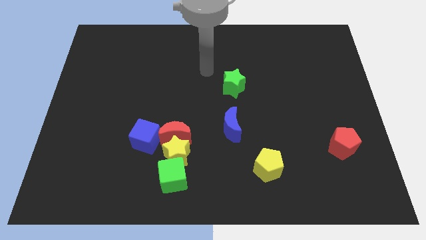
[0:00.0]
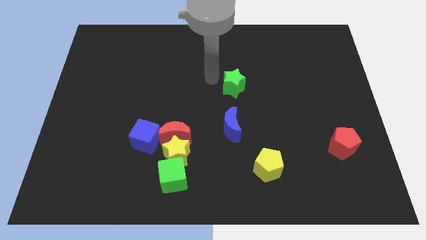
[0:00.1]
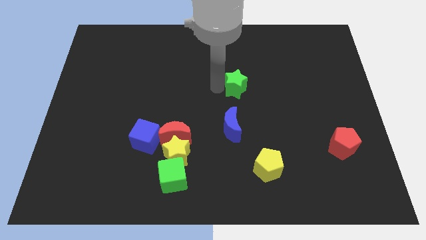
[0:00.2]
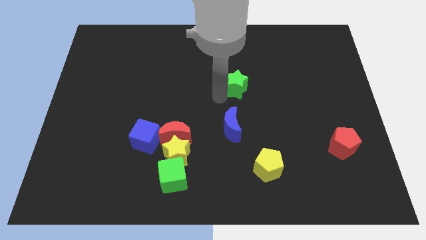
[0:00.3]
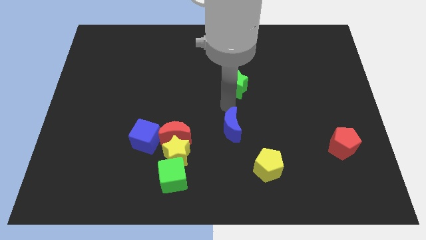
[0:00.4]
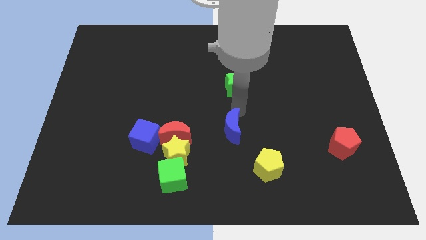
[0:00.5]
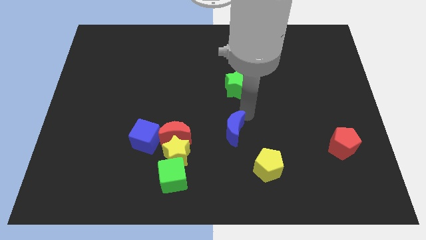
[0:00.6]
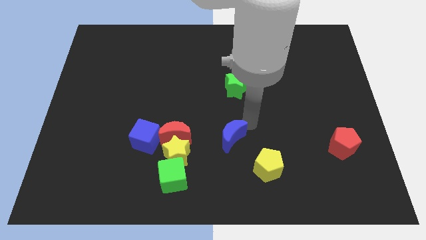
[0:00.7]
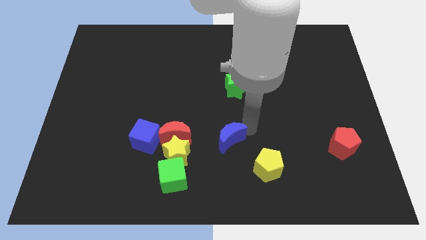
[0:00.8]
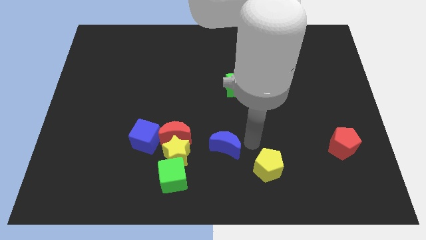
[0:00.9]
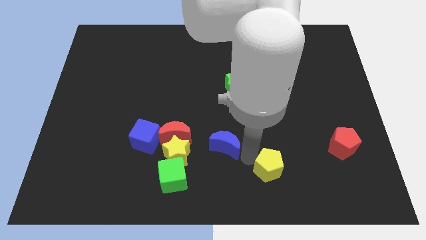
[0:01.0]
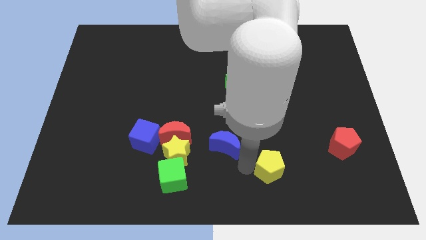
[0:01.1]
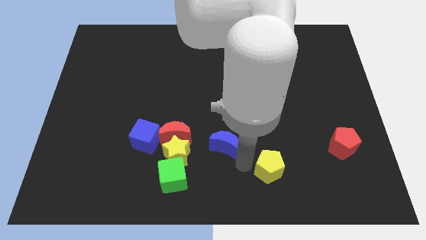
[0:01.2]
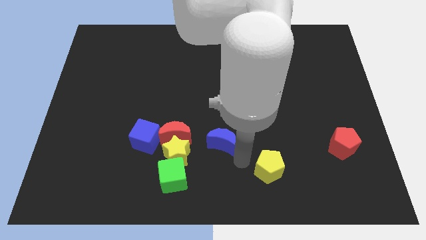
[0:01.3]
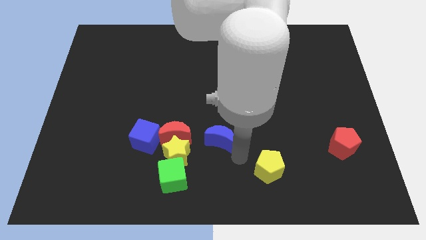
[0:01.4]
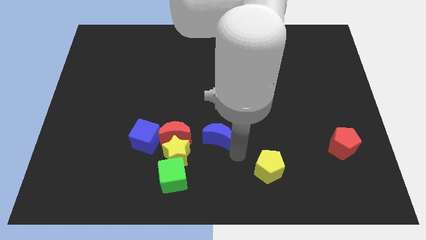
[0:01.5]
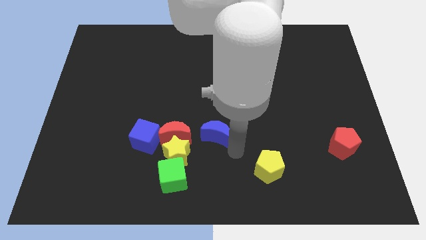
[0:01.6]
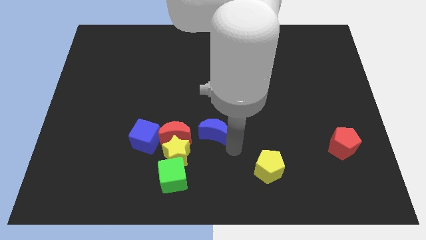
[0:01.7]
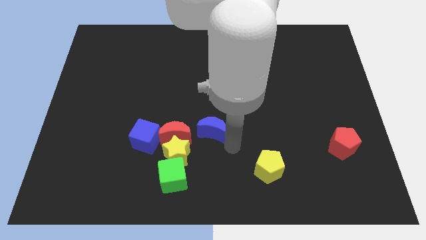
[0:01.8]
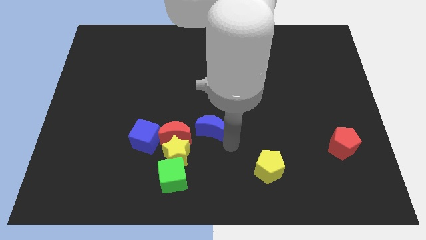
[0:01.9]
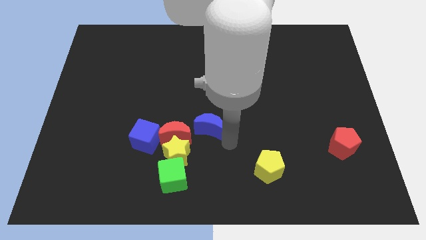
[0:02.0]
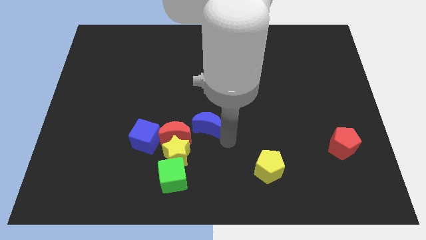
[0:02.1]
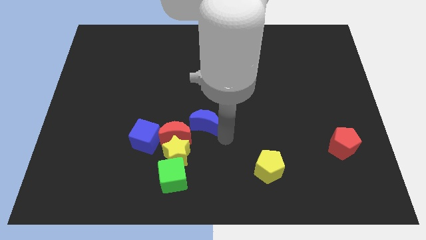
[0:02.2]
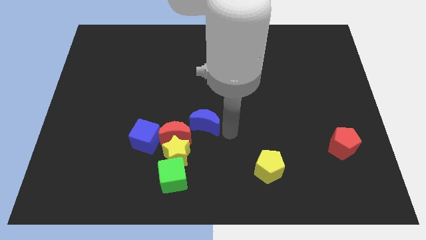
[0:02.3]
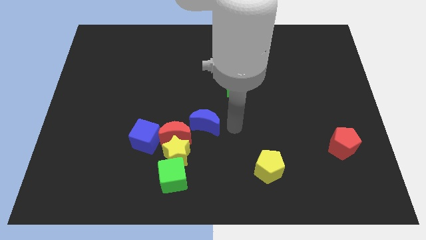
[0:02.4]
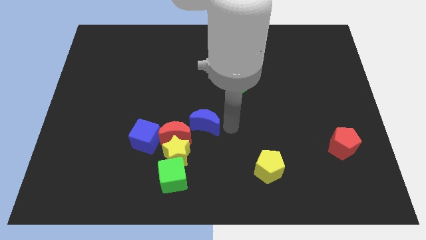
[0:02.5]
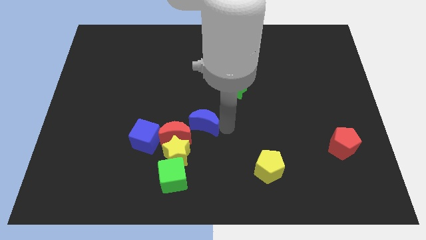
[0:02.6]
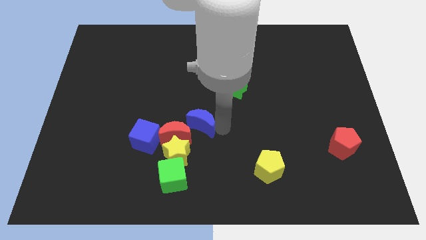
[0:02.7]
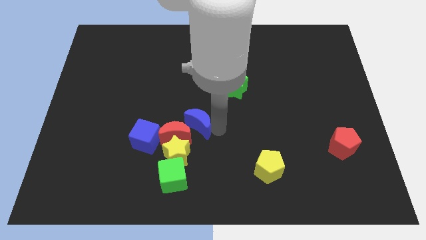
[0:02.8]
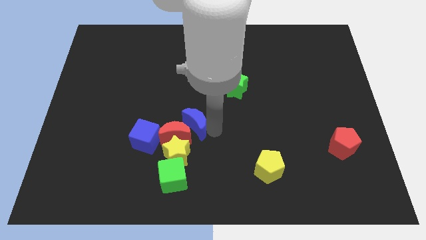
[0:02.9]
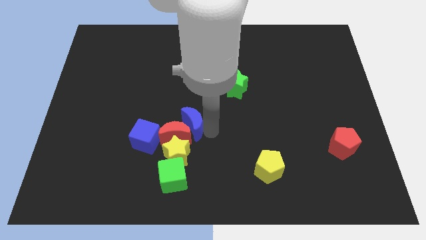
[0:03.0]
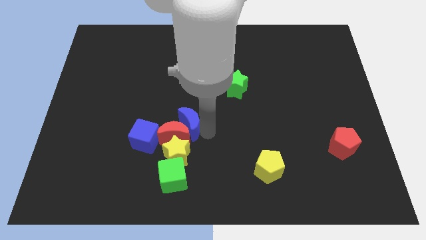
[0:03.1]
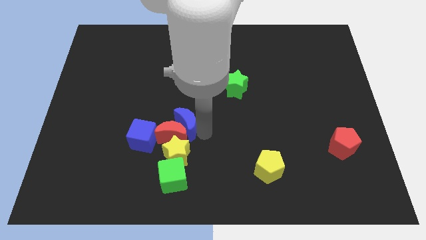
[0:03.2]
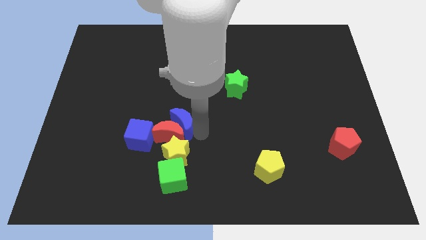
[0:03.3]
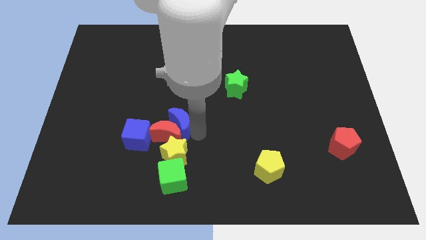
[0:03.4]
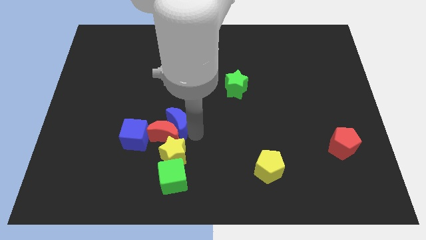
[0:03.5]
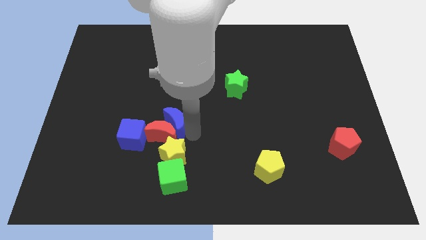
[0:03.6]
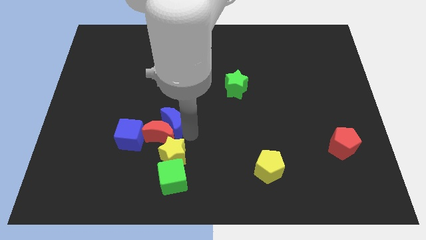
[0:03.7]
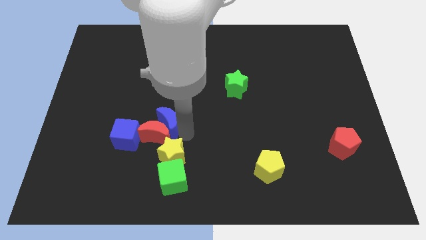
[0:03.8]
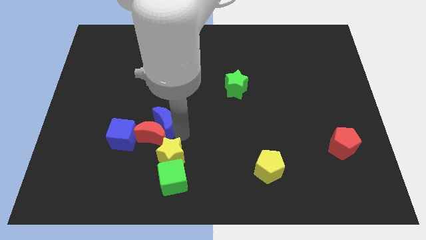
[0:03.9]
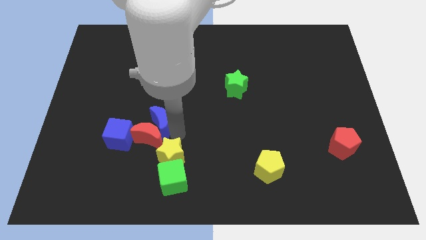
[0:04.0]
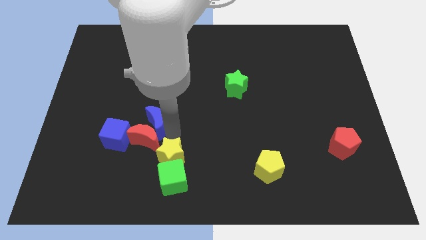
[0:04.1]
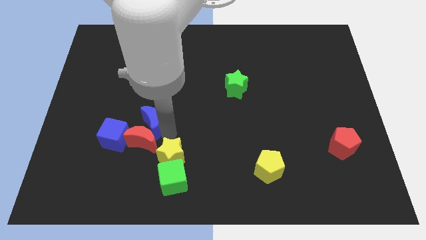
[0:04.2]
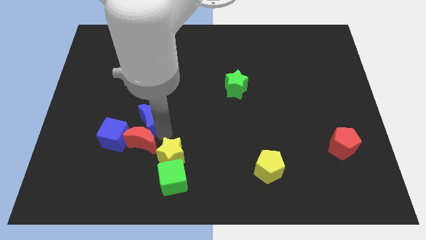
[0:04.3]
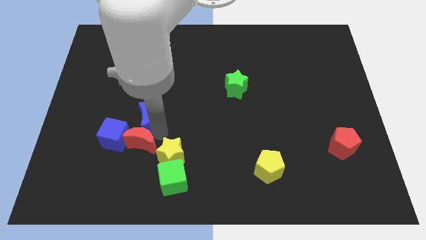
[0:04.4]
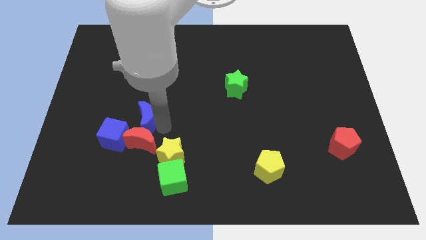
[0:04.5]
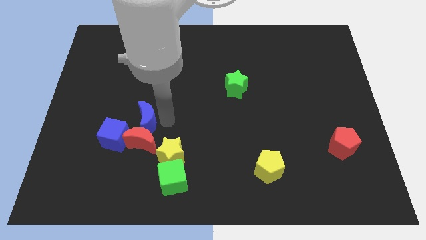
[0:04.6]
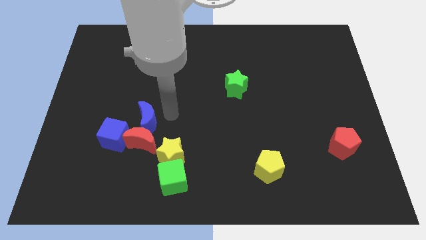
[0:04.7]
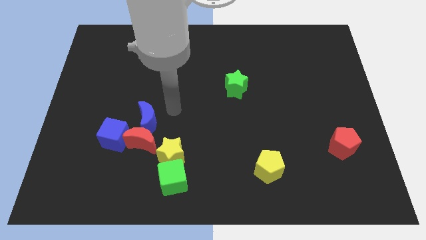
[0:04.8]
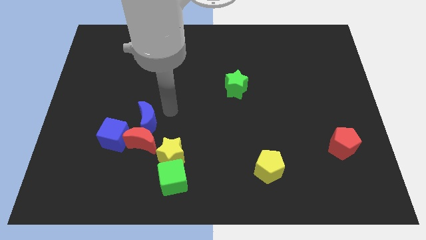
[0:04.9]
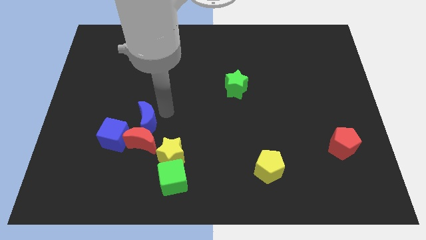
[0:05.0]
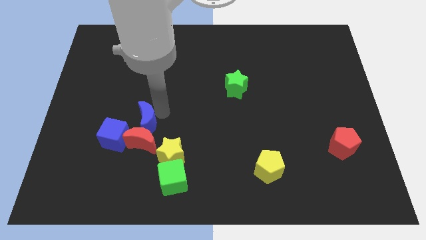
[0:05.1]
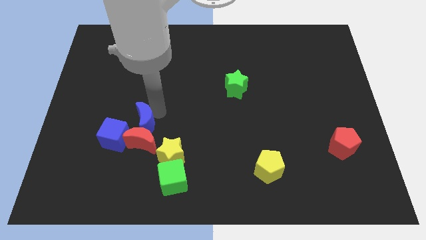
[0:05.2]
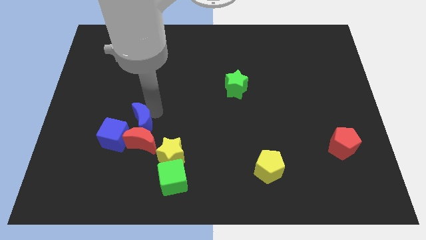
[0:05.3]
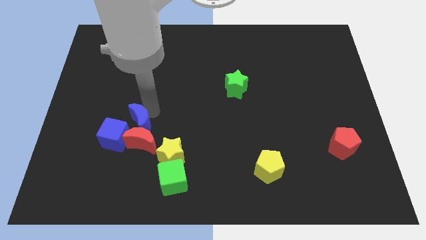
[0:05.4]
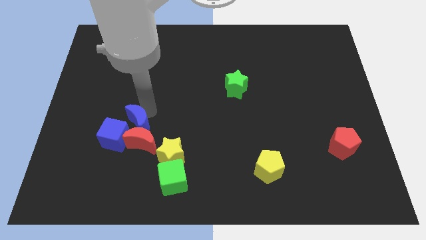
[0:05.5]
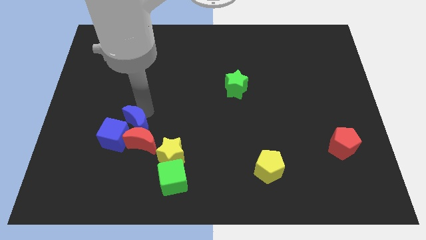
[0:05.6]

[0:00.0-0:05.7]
move the blue moon towards the blue cube

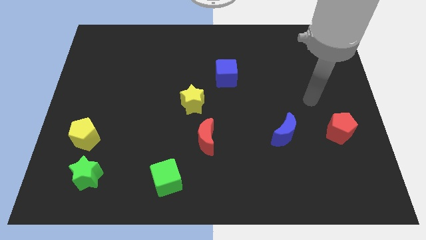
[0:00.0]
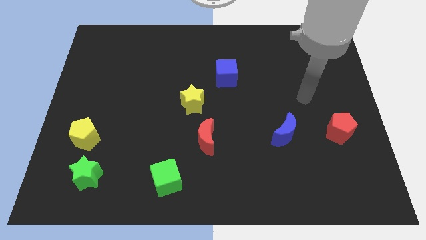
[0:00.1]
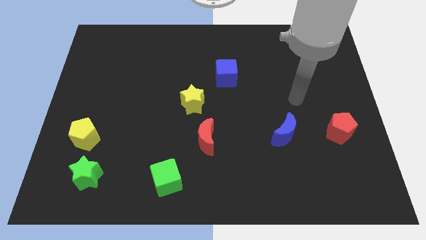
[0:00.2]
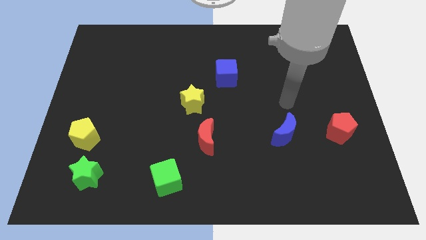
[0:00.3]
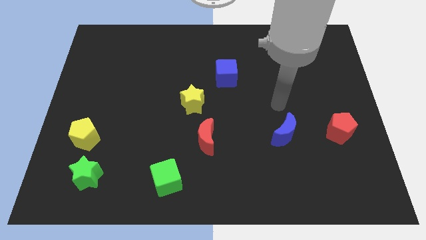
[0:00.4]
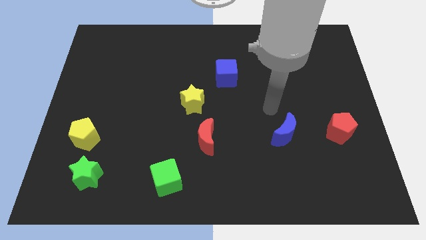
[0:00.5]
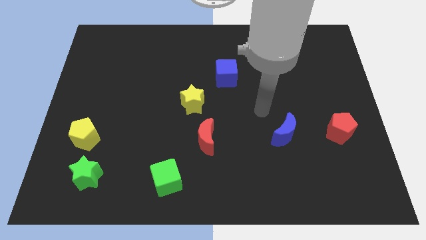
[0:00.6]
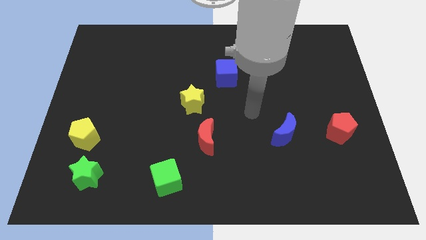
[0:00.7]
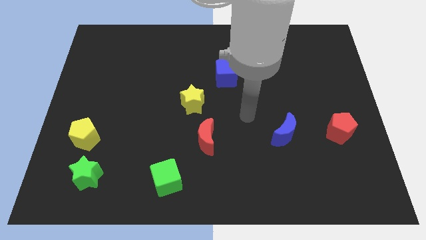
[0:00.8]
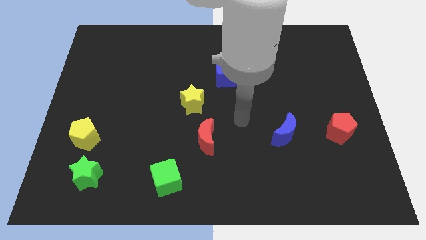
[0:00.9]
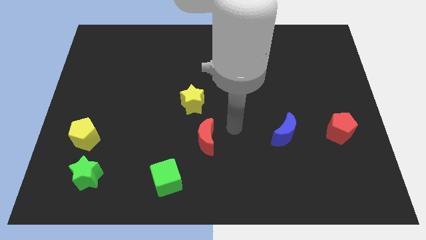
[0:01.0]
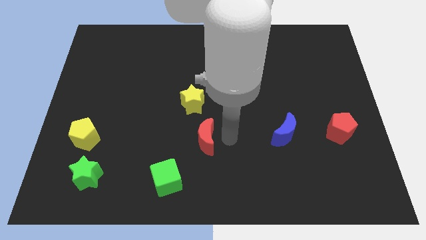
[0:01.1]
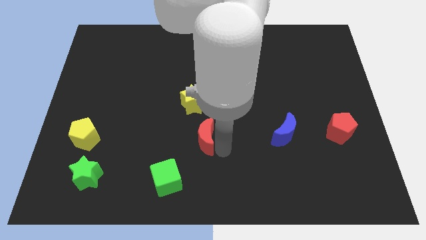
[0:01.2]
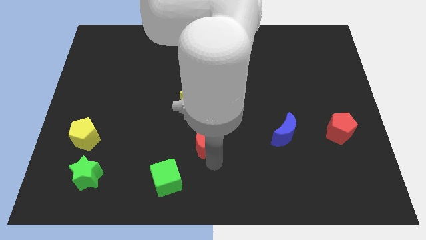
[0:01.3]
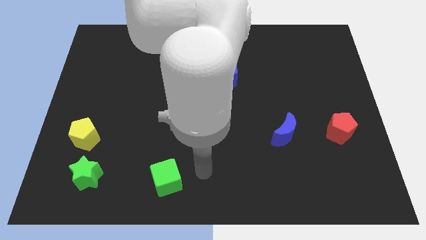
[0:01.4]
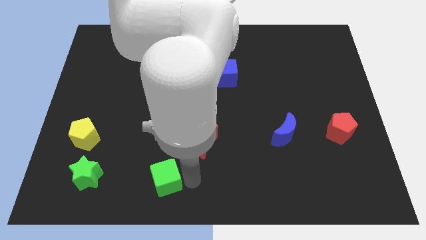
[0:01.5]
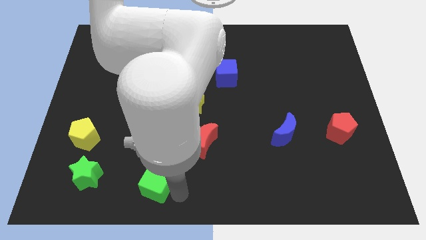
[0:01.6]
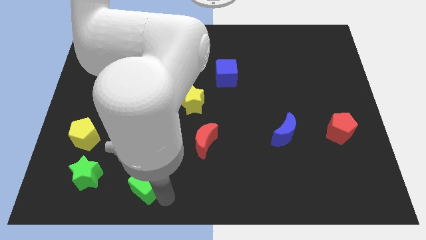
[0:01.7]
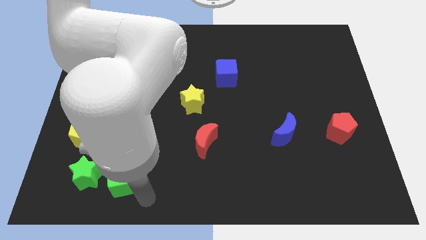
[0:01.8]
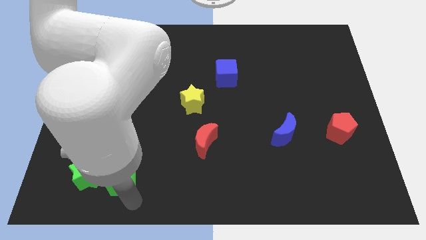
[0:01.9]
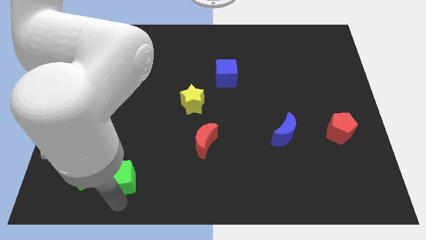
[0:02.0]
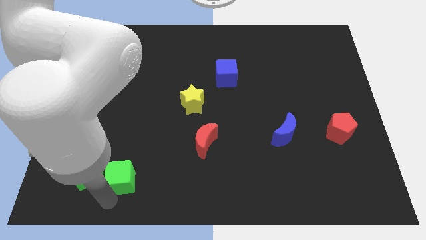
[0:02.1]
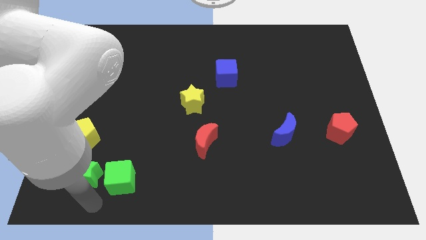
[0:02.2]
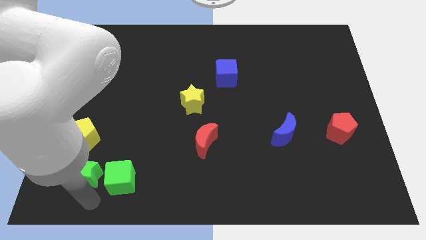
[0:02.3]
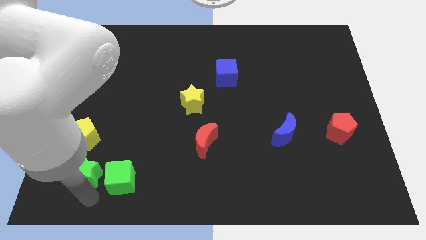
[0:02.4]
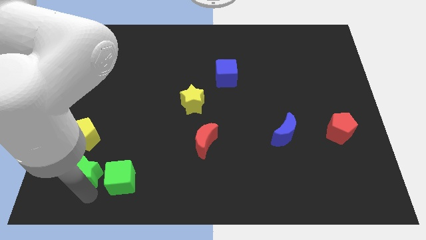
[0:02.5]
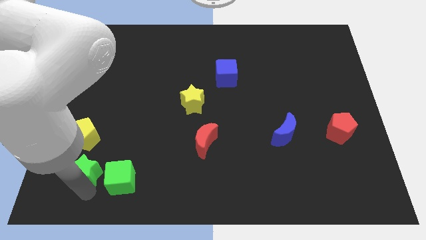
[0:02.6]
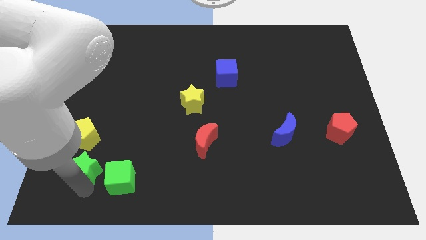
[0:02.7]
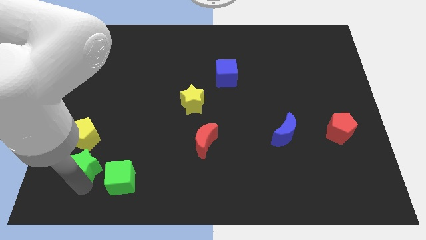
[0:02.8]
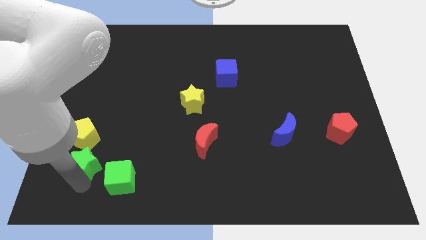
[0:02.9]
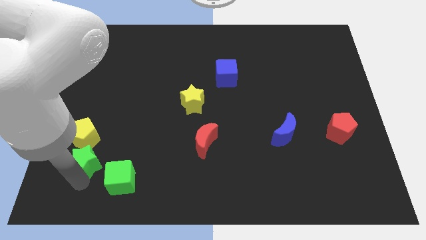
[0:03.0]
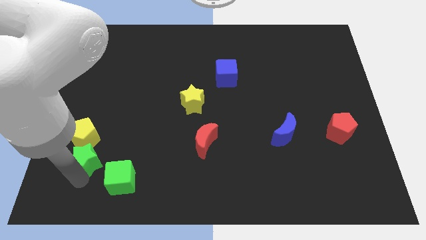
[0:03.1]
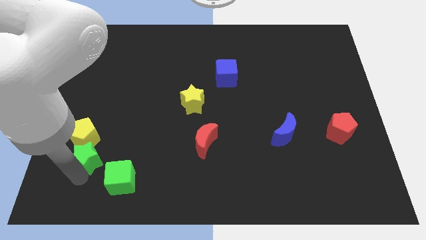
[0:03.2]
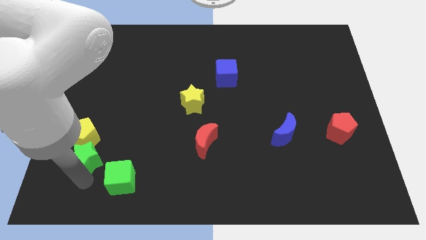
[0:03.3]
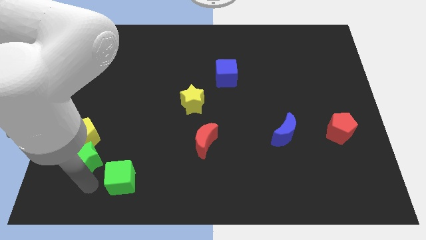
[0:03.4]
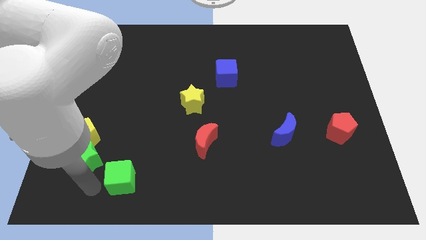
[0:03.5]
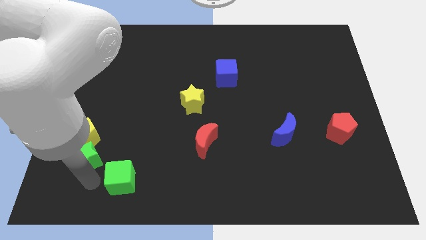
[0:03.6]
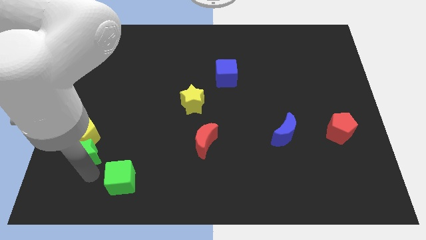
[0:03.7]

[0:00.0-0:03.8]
put the green star towards the yellow pentagon
